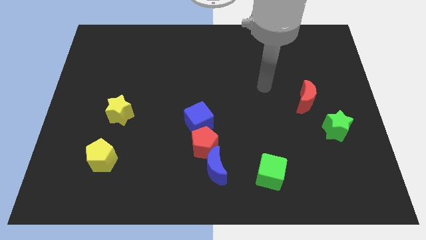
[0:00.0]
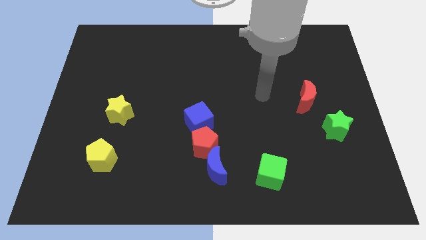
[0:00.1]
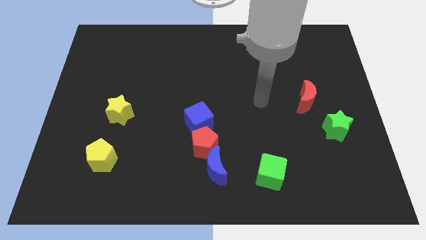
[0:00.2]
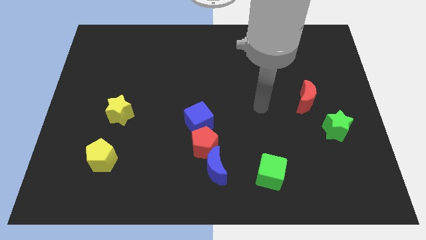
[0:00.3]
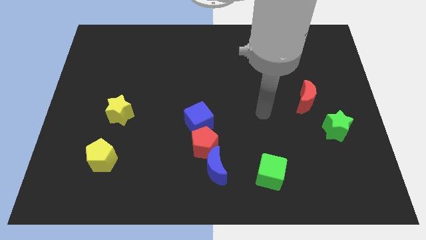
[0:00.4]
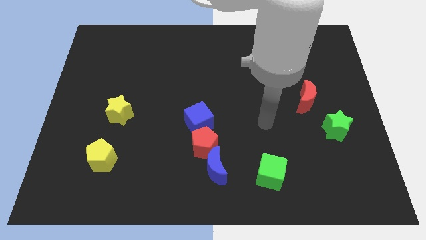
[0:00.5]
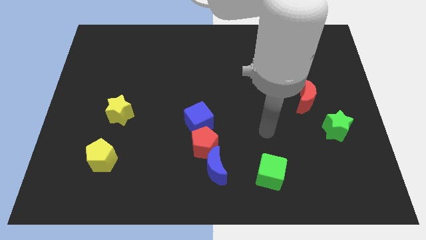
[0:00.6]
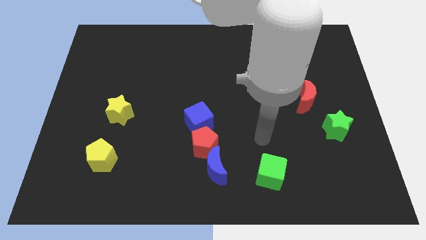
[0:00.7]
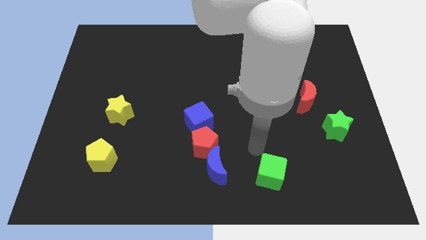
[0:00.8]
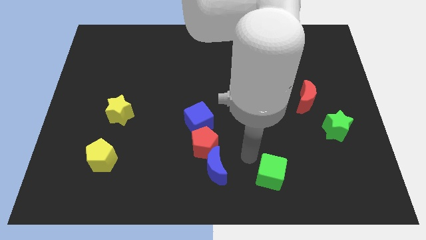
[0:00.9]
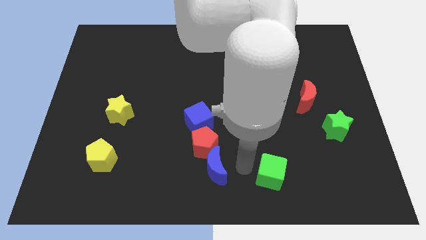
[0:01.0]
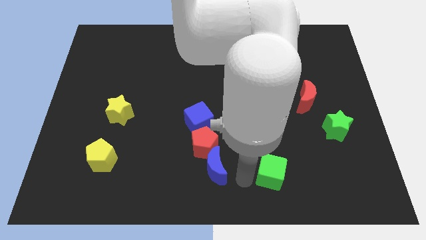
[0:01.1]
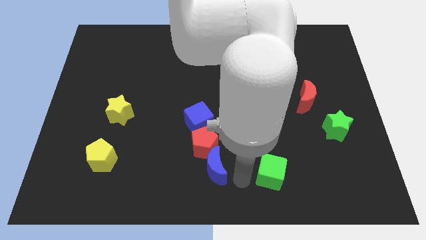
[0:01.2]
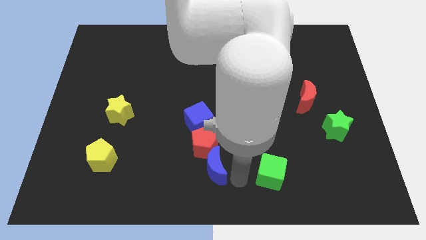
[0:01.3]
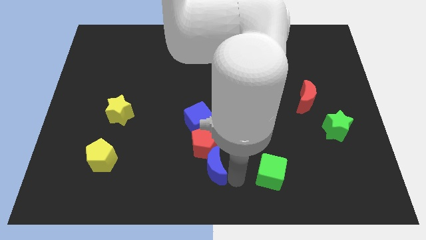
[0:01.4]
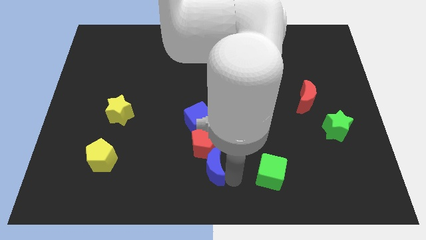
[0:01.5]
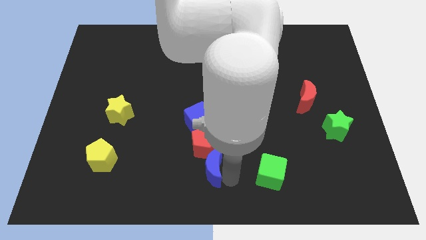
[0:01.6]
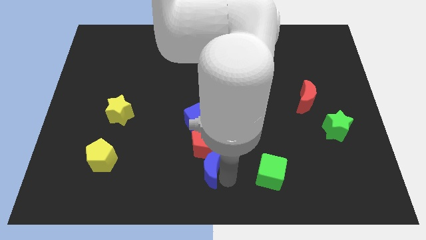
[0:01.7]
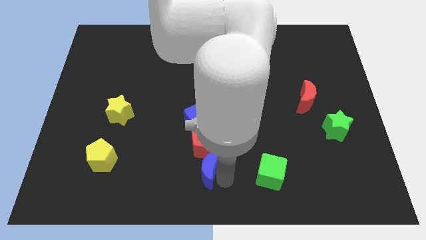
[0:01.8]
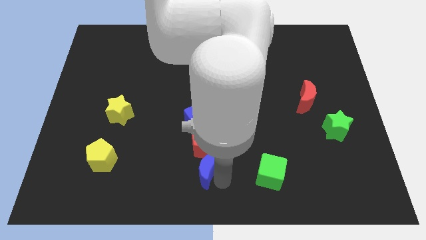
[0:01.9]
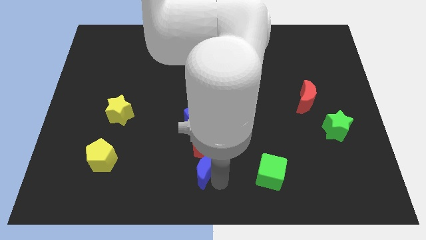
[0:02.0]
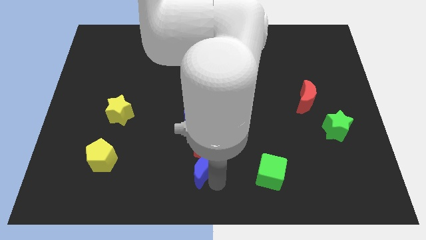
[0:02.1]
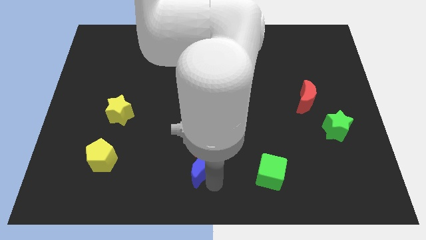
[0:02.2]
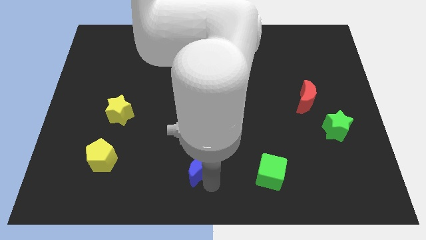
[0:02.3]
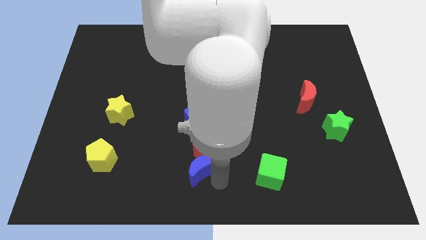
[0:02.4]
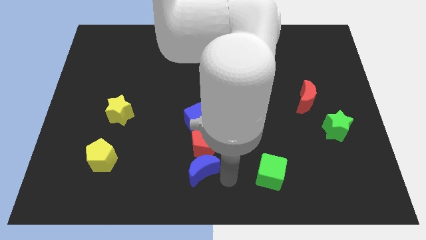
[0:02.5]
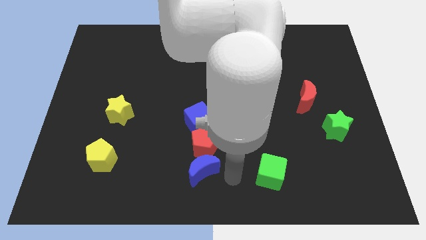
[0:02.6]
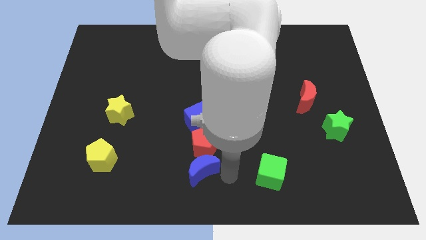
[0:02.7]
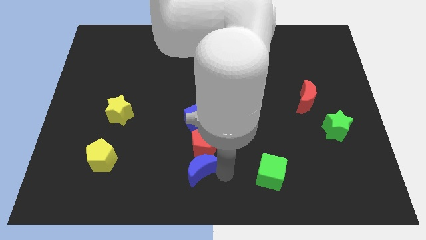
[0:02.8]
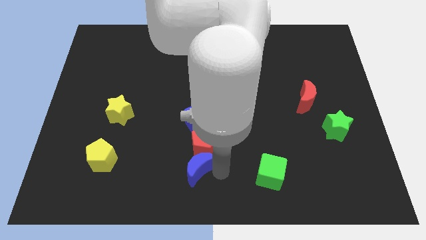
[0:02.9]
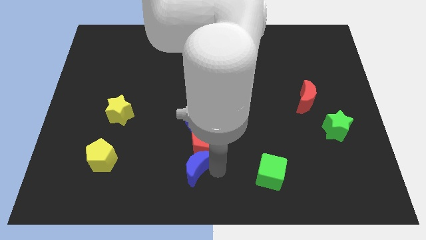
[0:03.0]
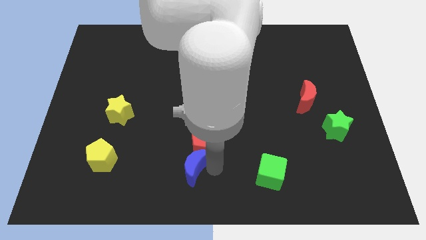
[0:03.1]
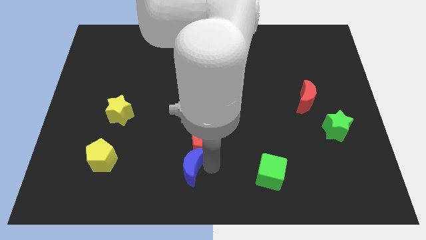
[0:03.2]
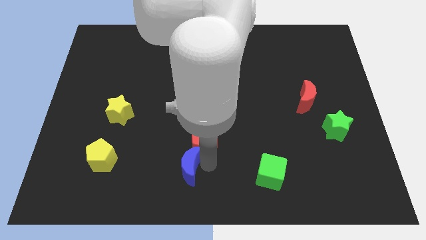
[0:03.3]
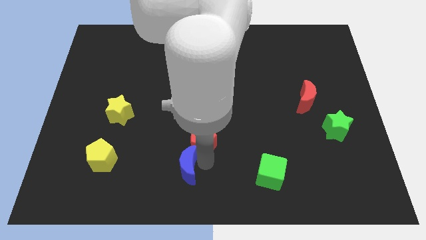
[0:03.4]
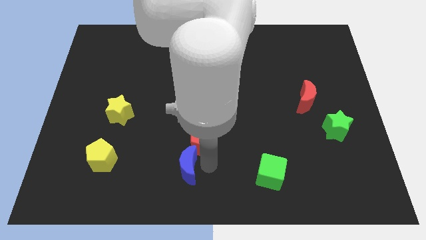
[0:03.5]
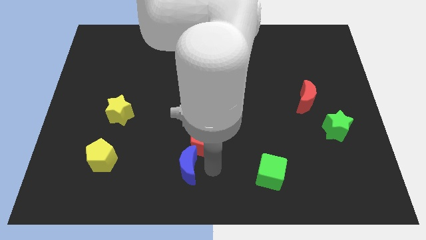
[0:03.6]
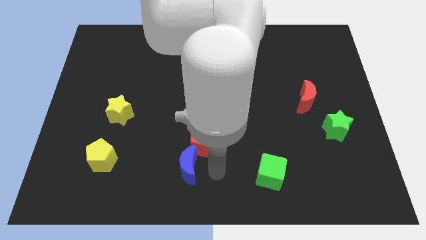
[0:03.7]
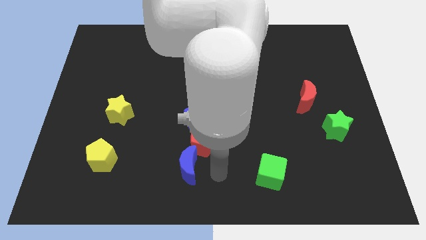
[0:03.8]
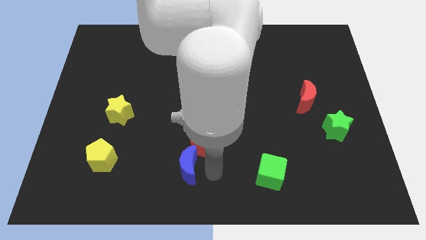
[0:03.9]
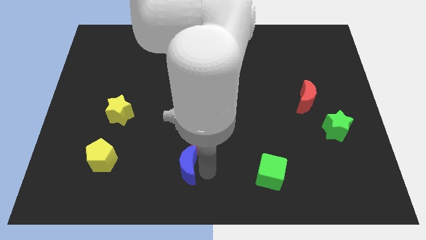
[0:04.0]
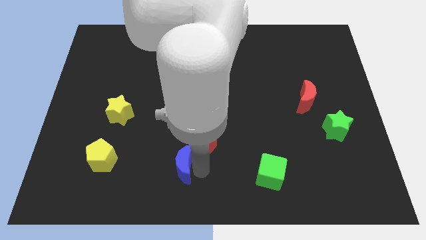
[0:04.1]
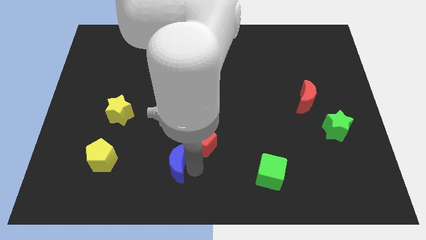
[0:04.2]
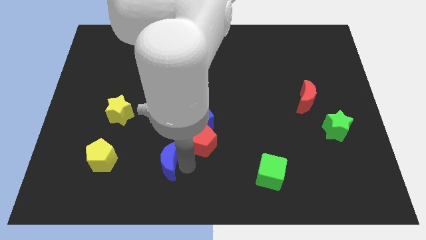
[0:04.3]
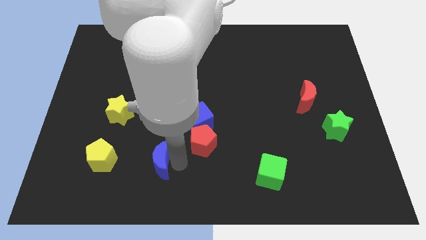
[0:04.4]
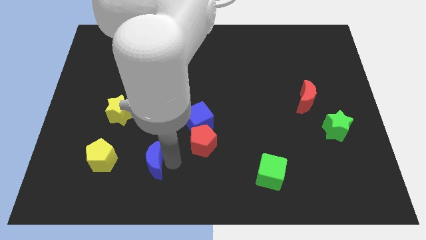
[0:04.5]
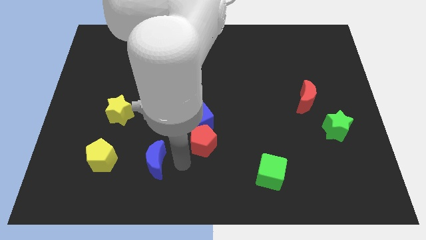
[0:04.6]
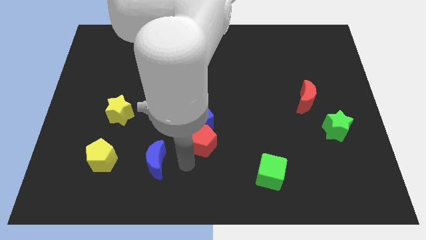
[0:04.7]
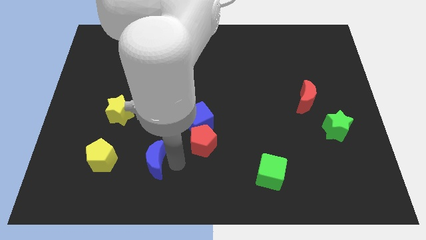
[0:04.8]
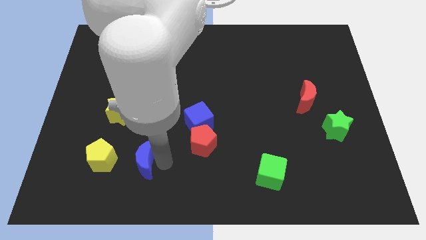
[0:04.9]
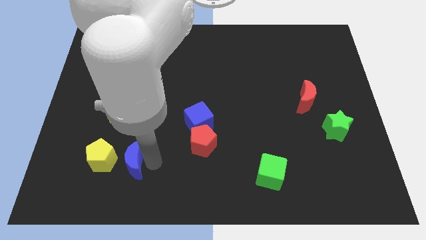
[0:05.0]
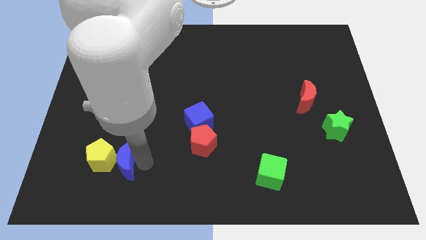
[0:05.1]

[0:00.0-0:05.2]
put the blue moon to the yellow pentagon

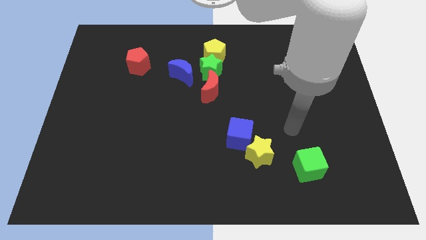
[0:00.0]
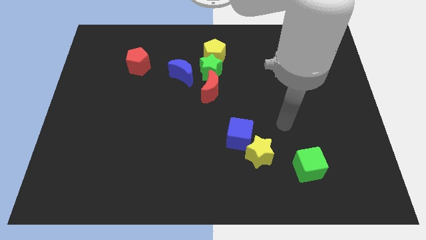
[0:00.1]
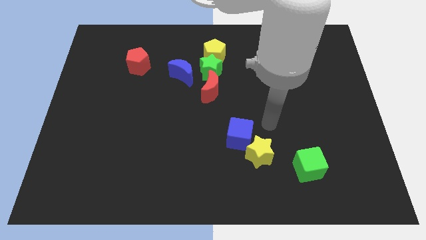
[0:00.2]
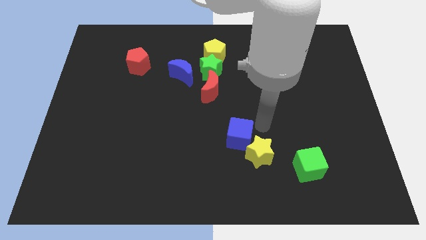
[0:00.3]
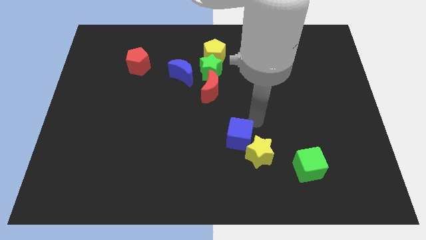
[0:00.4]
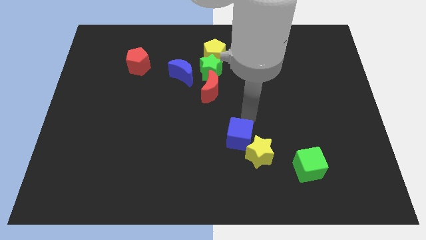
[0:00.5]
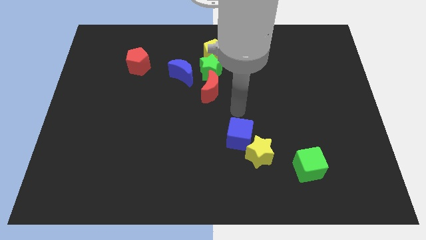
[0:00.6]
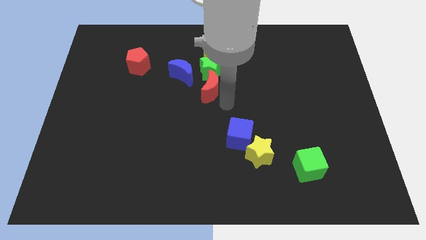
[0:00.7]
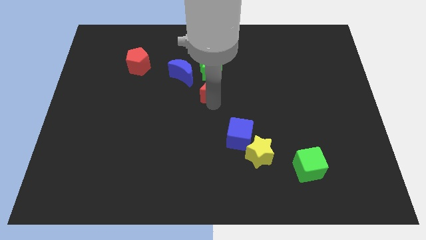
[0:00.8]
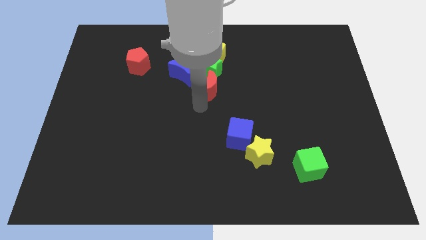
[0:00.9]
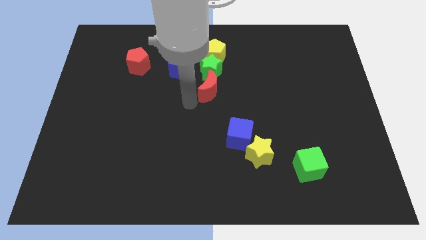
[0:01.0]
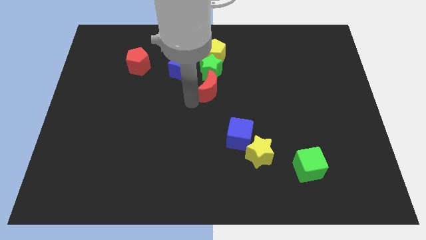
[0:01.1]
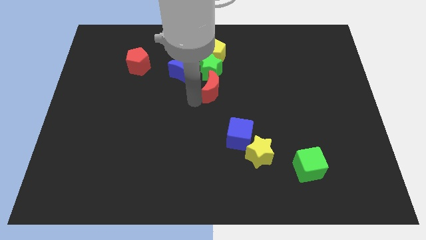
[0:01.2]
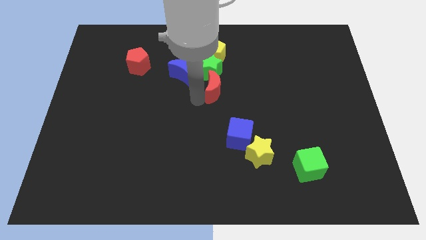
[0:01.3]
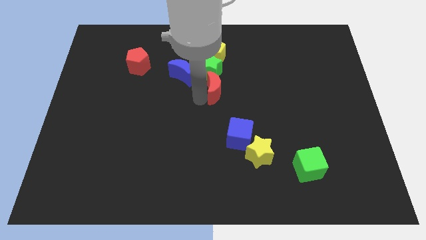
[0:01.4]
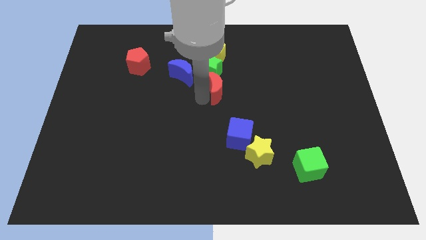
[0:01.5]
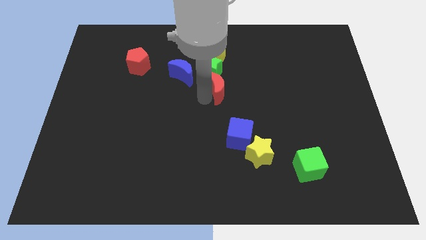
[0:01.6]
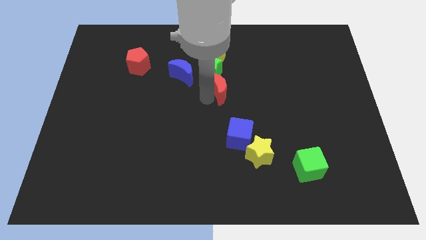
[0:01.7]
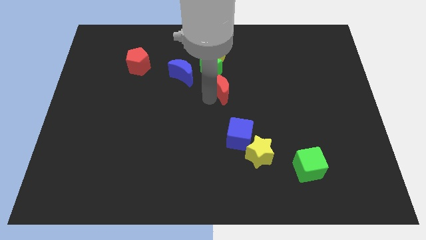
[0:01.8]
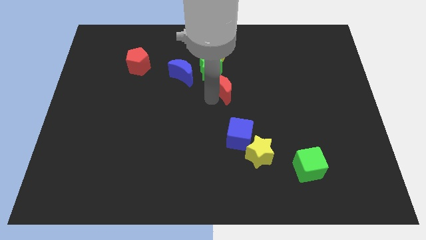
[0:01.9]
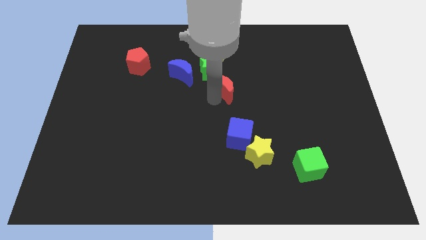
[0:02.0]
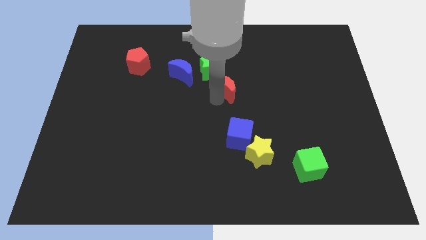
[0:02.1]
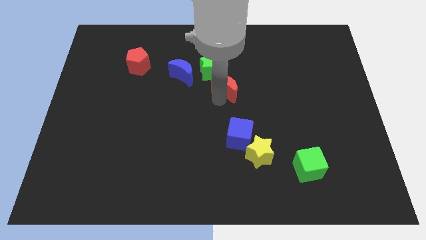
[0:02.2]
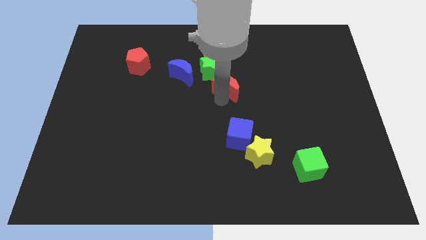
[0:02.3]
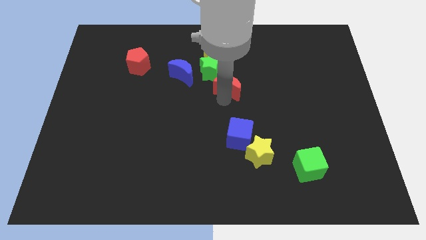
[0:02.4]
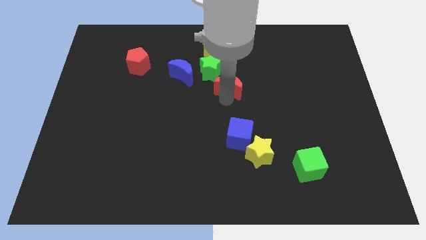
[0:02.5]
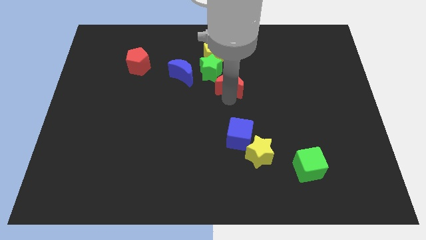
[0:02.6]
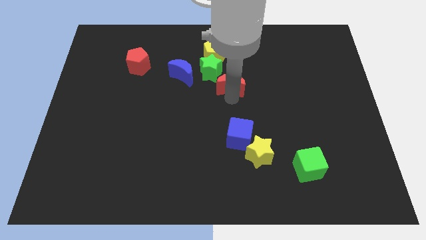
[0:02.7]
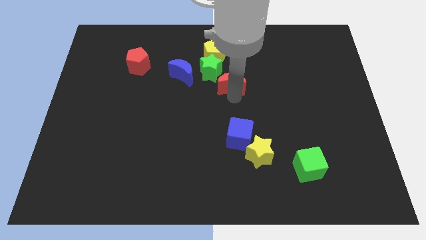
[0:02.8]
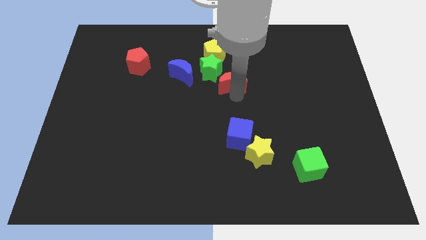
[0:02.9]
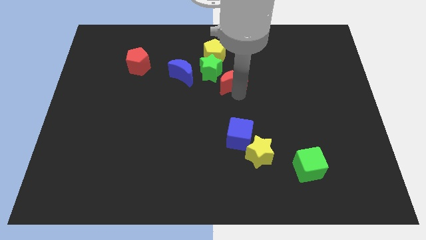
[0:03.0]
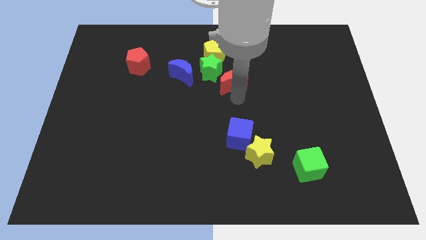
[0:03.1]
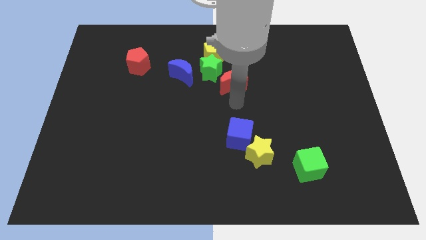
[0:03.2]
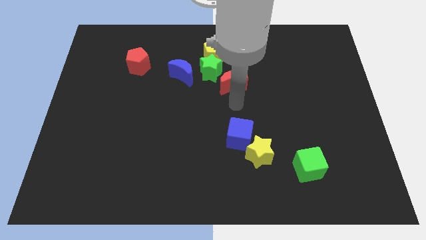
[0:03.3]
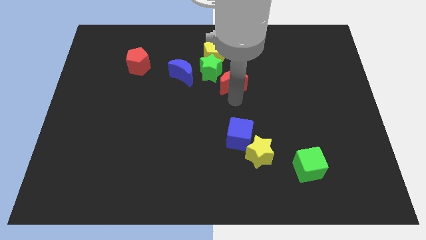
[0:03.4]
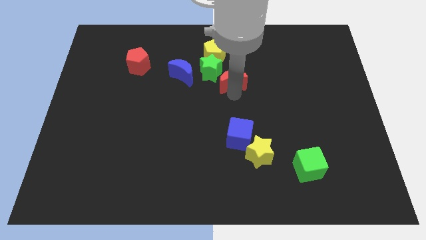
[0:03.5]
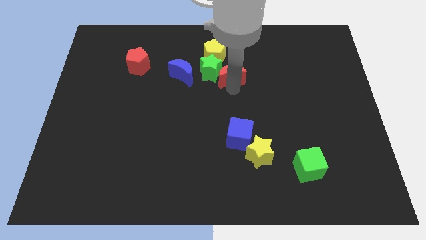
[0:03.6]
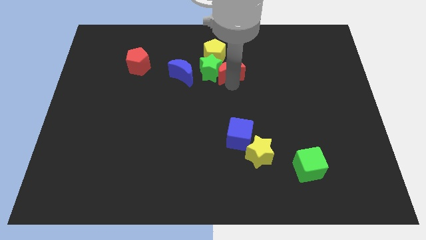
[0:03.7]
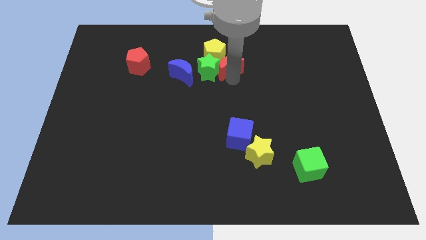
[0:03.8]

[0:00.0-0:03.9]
put the red moon close to the yellow pentagon
